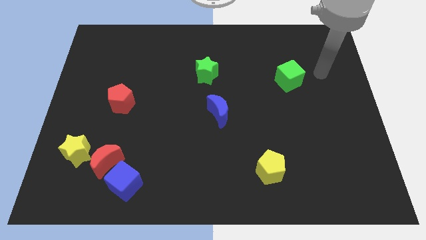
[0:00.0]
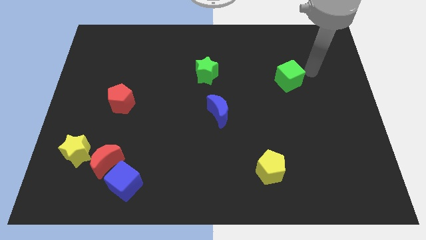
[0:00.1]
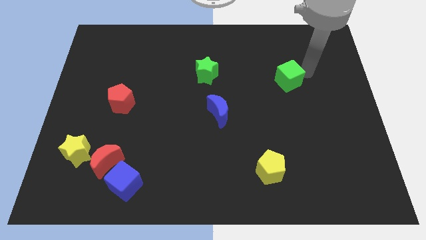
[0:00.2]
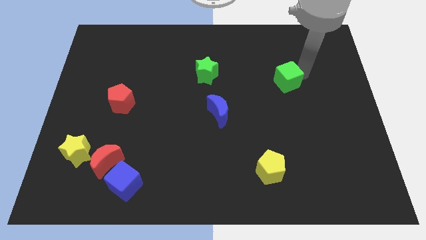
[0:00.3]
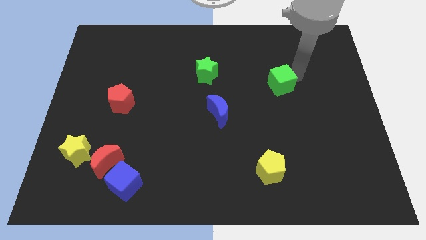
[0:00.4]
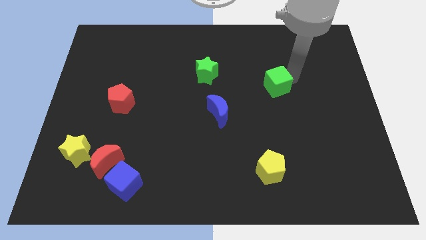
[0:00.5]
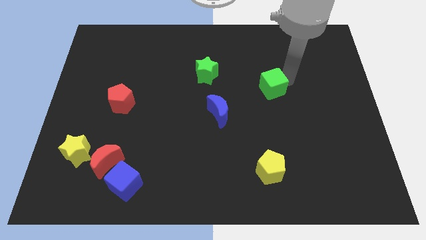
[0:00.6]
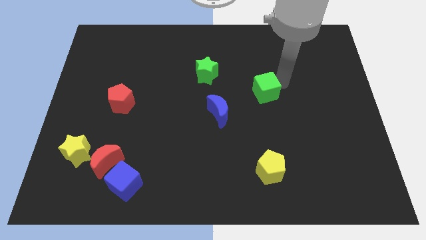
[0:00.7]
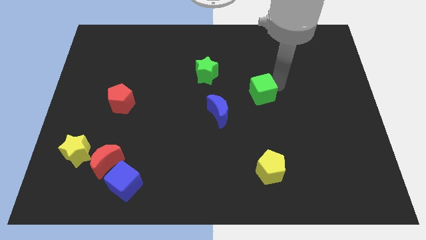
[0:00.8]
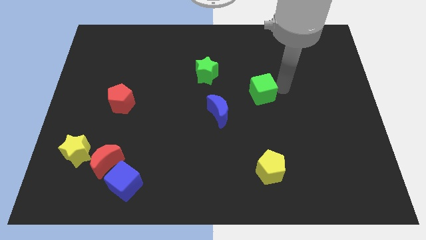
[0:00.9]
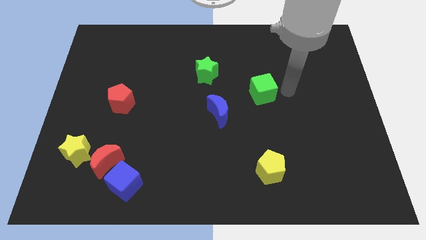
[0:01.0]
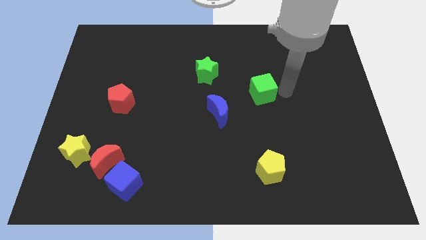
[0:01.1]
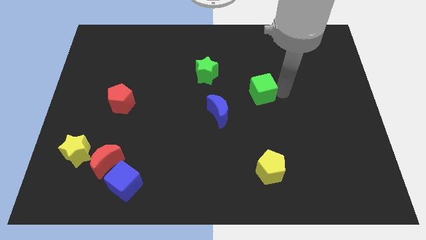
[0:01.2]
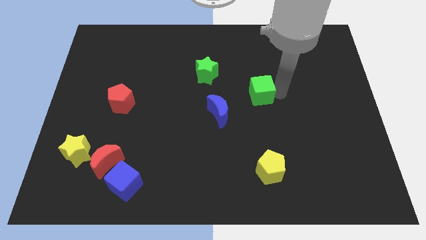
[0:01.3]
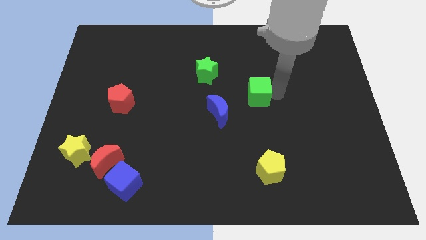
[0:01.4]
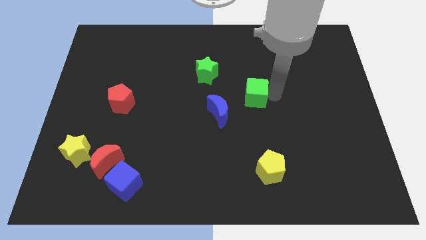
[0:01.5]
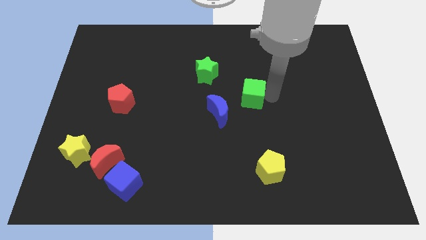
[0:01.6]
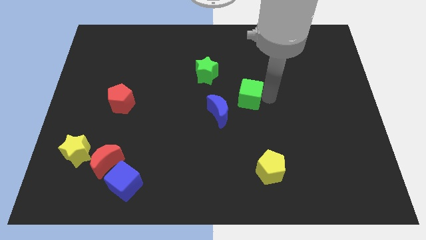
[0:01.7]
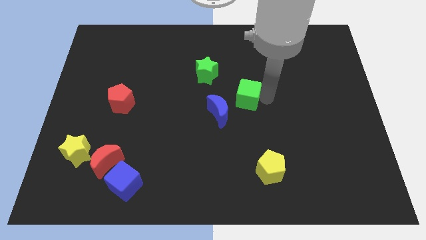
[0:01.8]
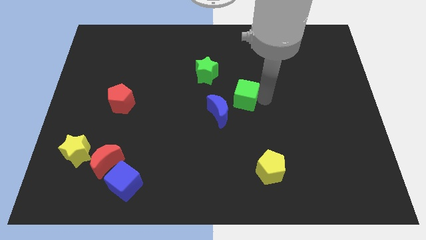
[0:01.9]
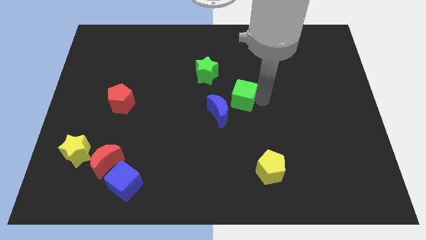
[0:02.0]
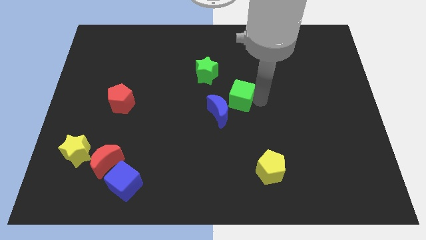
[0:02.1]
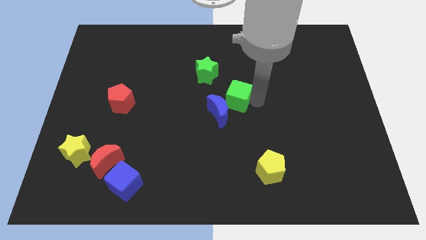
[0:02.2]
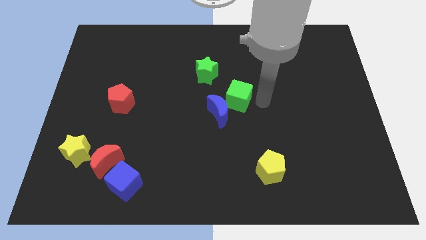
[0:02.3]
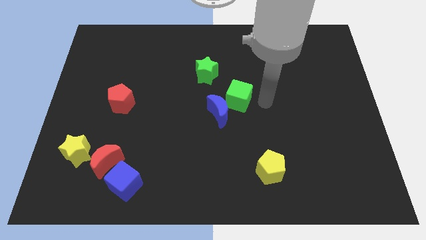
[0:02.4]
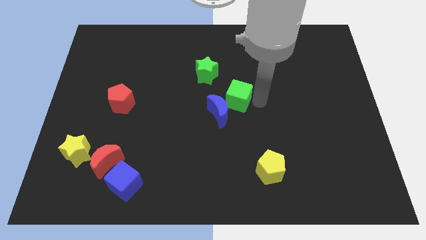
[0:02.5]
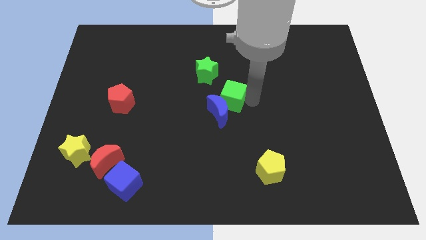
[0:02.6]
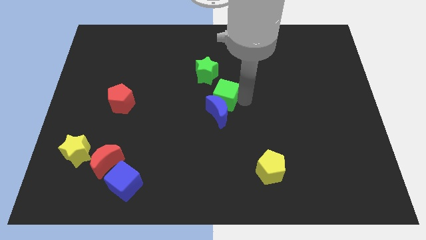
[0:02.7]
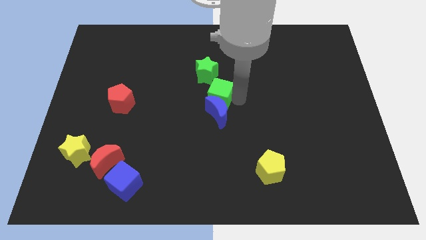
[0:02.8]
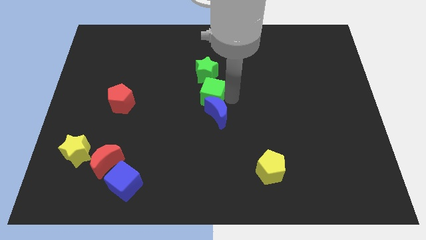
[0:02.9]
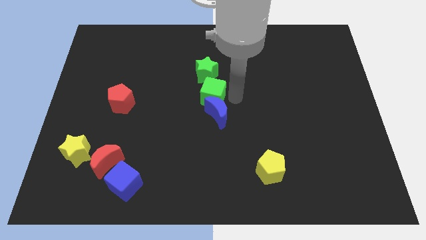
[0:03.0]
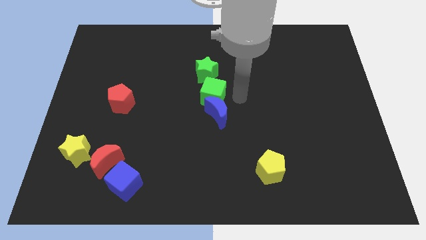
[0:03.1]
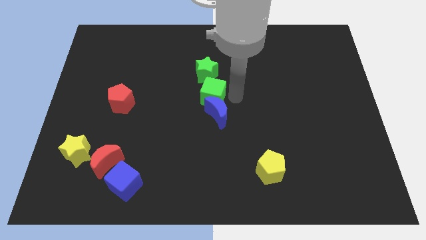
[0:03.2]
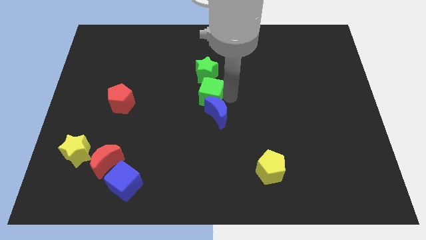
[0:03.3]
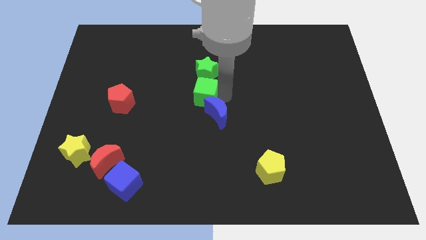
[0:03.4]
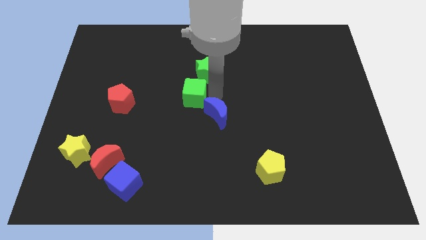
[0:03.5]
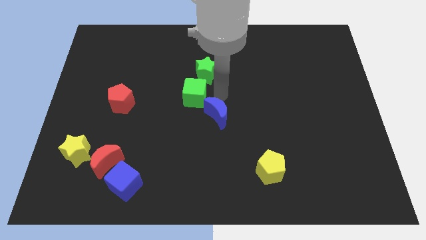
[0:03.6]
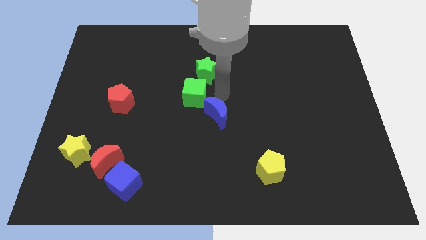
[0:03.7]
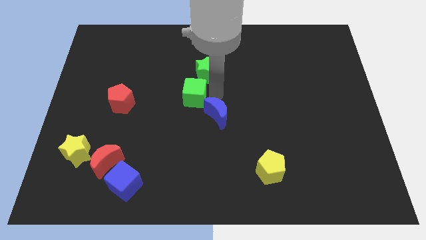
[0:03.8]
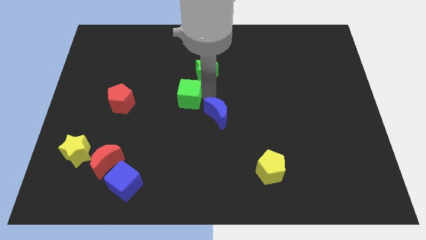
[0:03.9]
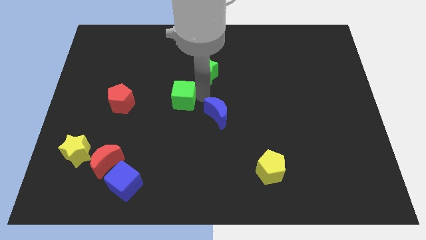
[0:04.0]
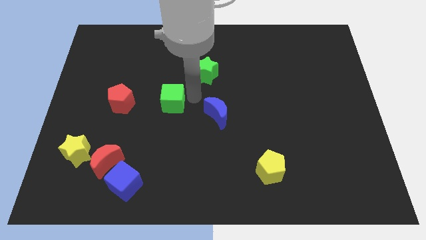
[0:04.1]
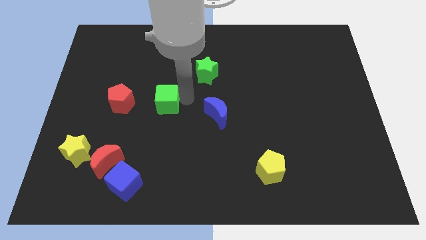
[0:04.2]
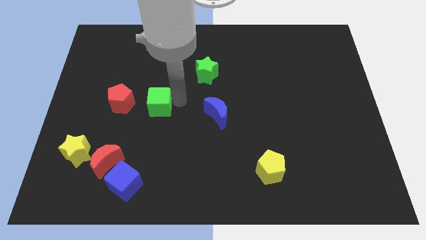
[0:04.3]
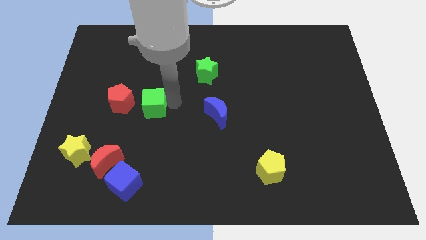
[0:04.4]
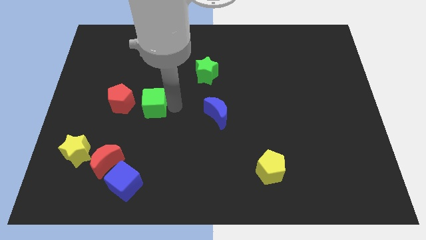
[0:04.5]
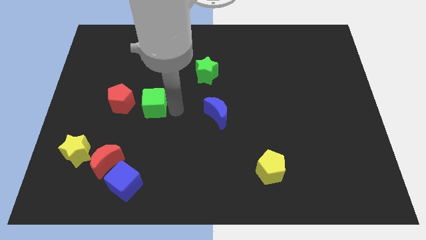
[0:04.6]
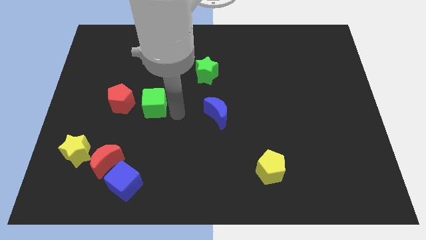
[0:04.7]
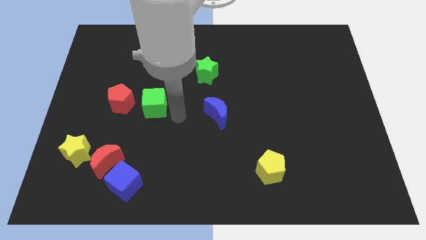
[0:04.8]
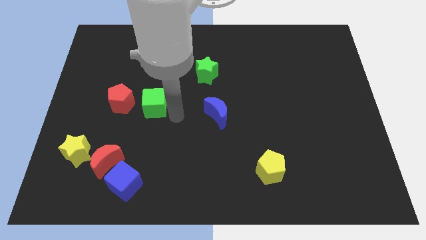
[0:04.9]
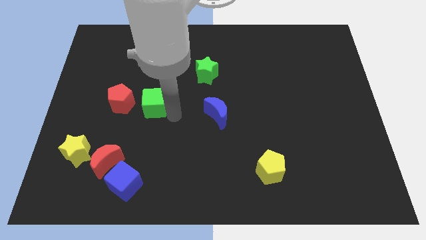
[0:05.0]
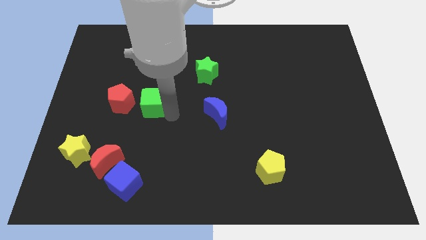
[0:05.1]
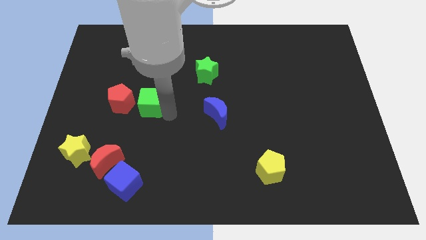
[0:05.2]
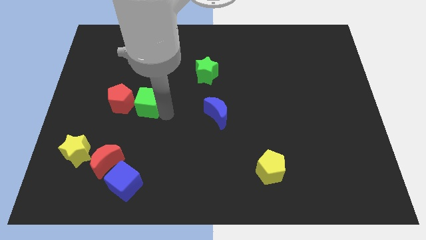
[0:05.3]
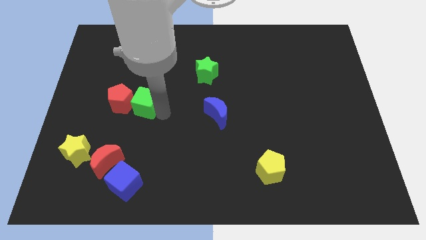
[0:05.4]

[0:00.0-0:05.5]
slide the green cube to the red pentagon

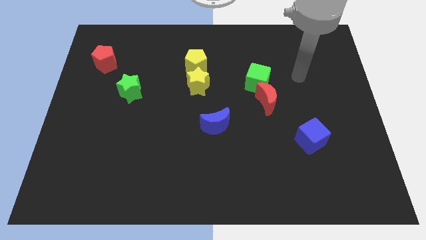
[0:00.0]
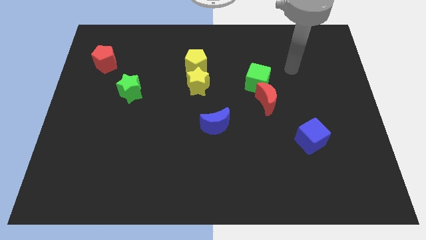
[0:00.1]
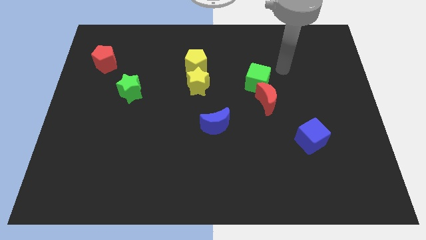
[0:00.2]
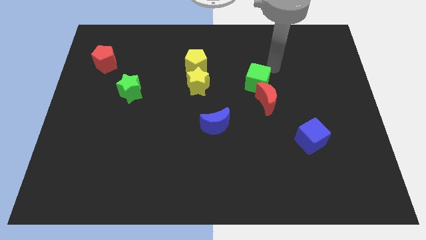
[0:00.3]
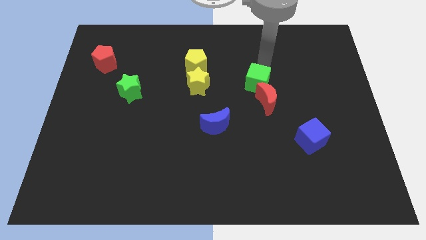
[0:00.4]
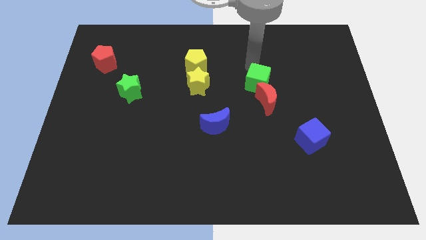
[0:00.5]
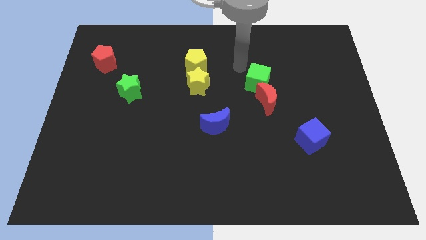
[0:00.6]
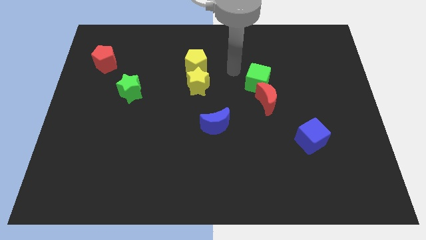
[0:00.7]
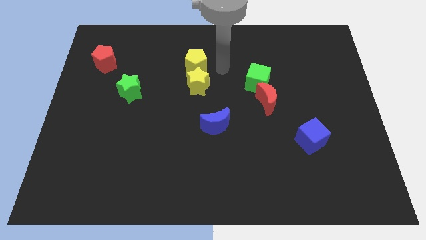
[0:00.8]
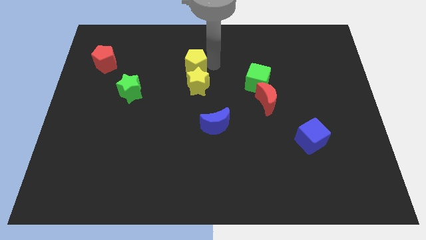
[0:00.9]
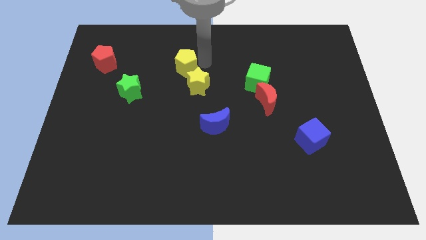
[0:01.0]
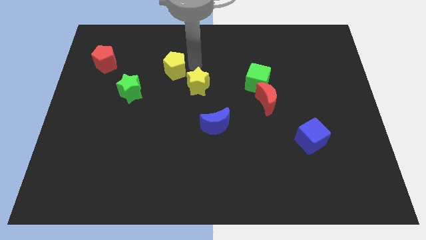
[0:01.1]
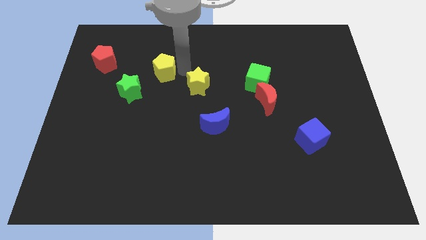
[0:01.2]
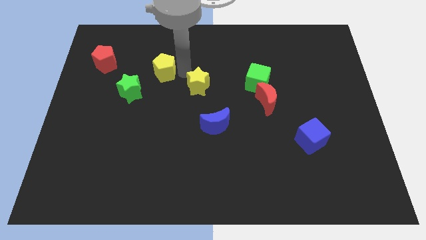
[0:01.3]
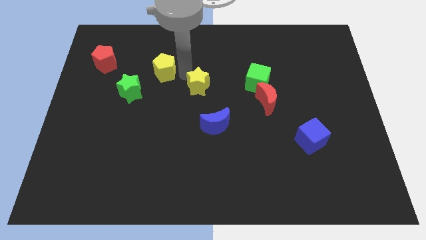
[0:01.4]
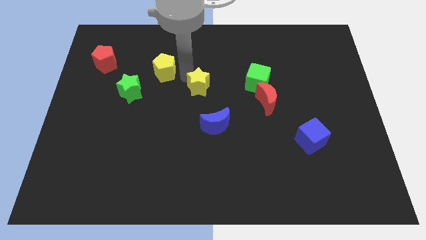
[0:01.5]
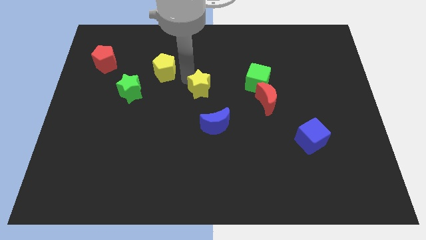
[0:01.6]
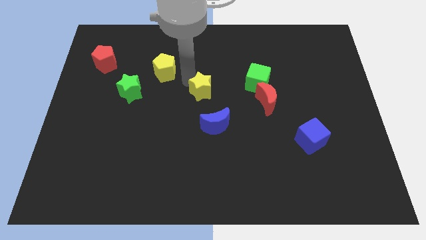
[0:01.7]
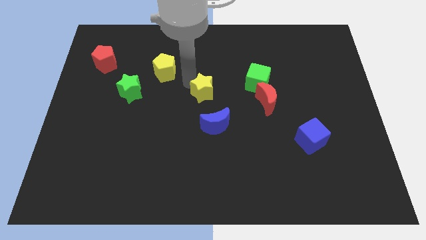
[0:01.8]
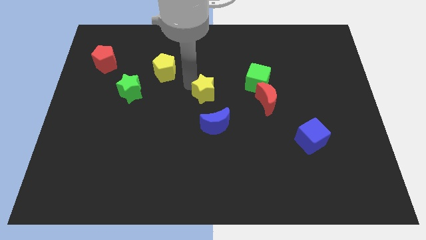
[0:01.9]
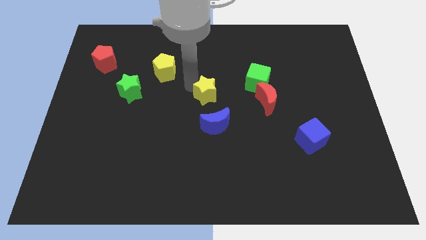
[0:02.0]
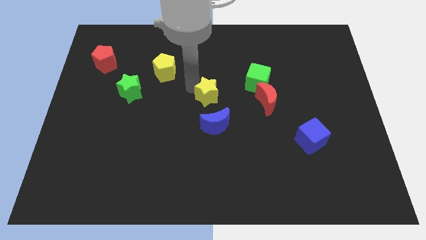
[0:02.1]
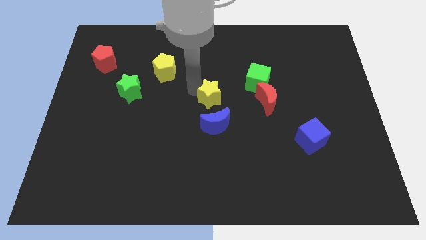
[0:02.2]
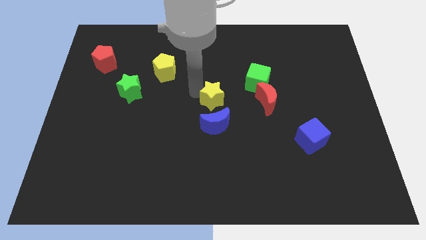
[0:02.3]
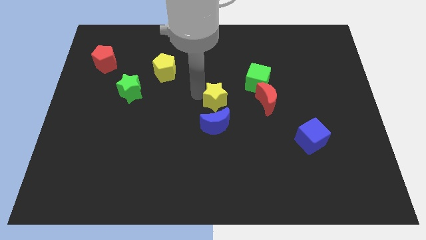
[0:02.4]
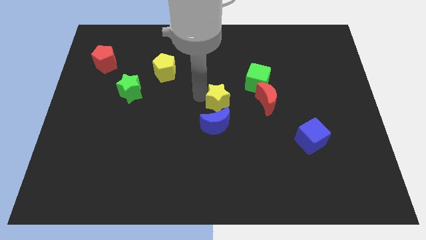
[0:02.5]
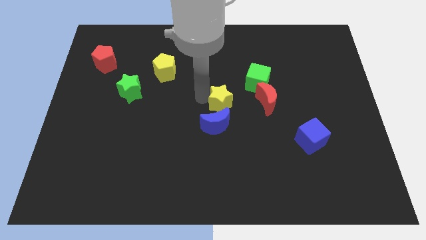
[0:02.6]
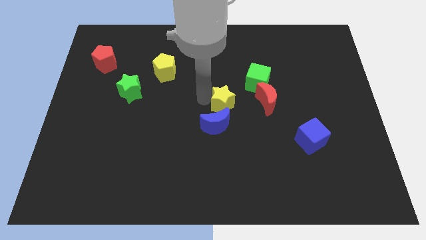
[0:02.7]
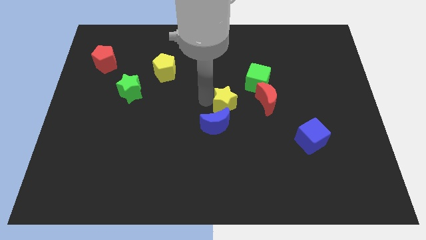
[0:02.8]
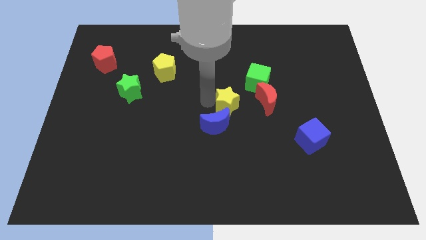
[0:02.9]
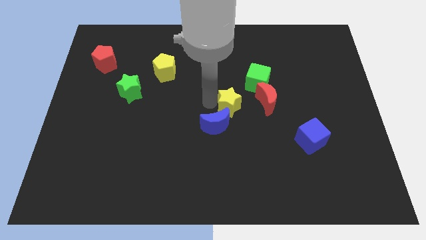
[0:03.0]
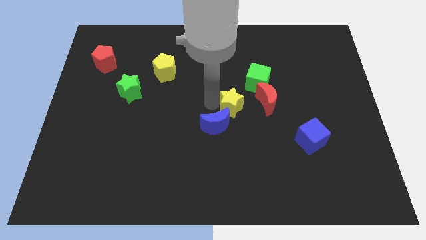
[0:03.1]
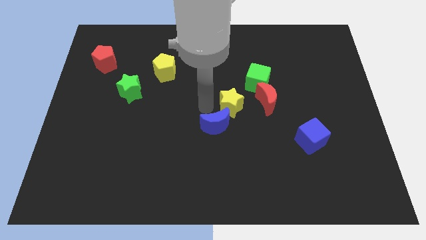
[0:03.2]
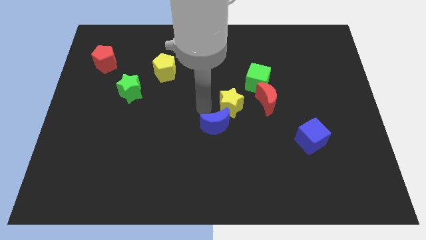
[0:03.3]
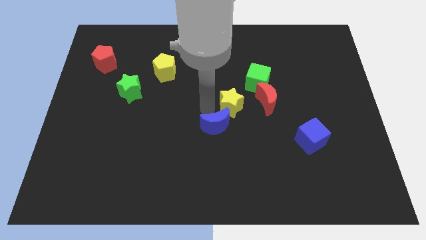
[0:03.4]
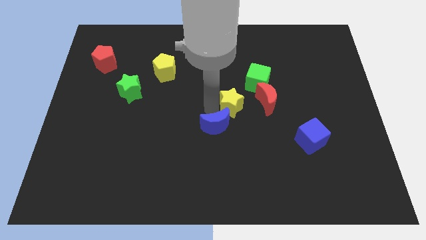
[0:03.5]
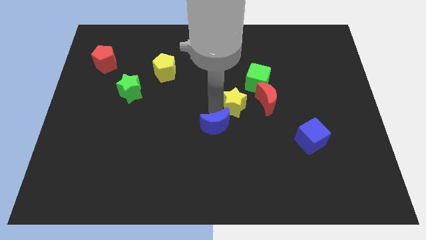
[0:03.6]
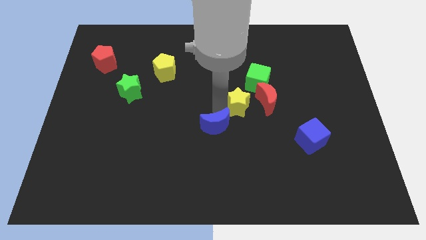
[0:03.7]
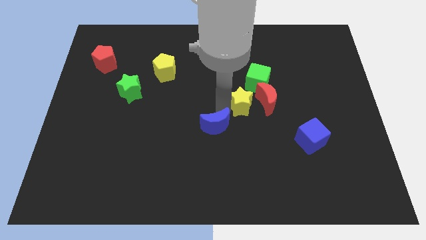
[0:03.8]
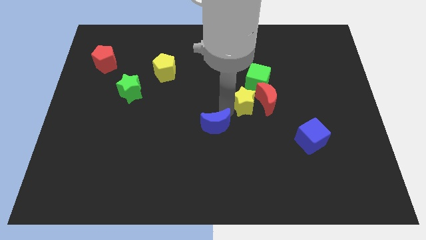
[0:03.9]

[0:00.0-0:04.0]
put the yellow star towards the red moon
